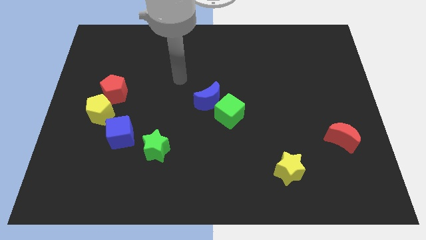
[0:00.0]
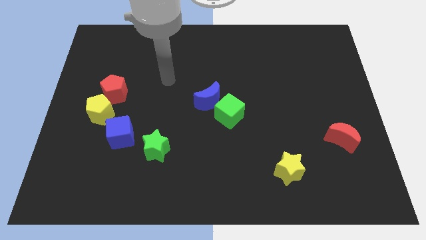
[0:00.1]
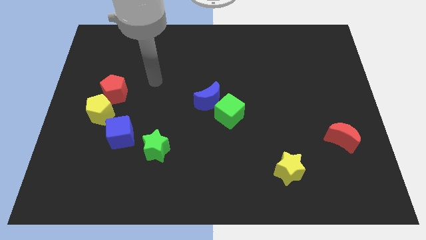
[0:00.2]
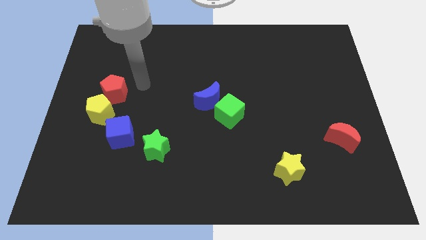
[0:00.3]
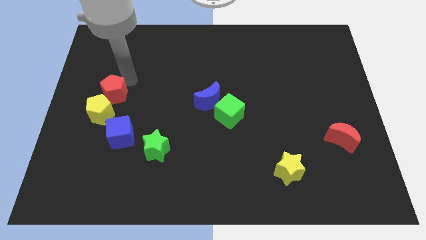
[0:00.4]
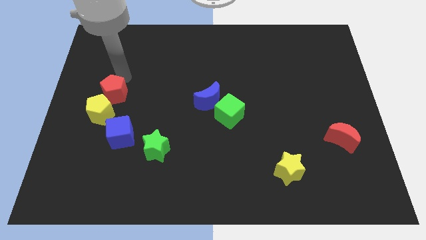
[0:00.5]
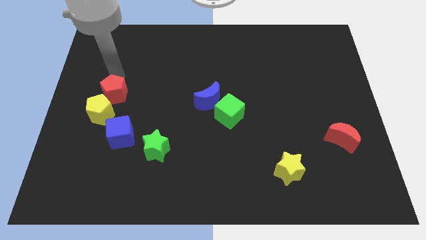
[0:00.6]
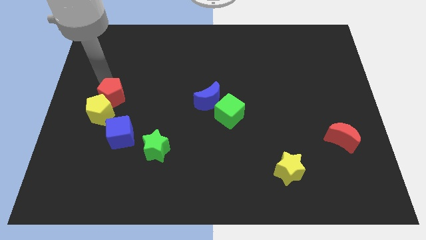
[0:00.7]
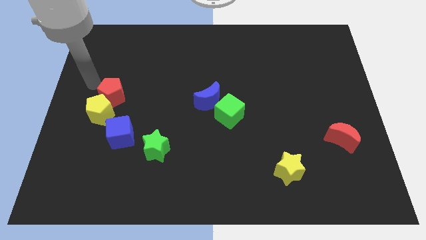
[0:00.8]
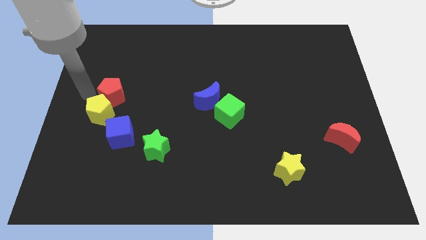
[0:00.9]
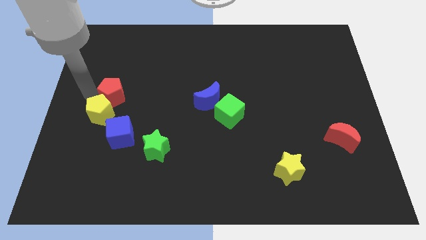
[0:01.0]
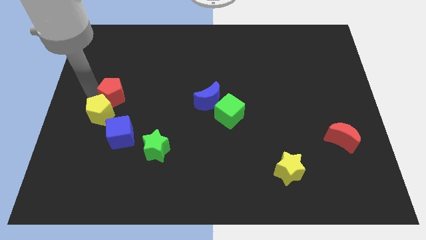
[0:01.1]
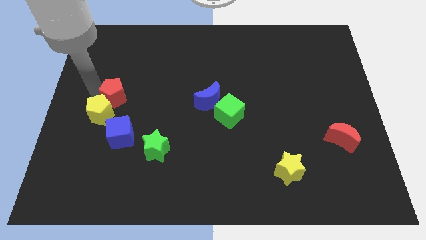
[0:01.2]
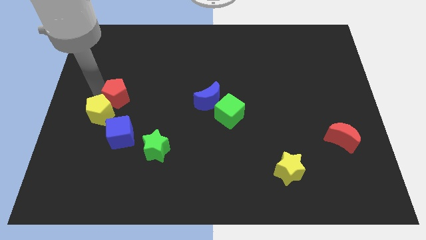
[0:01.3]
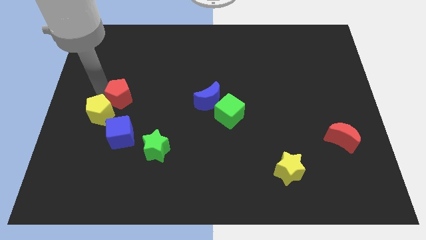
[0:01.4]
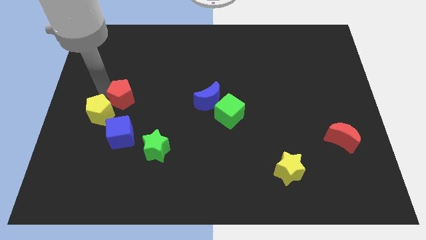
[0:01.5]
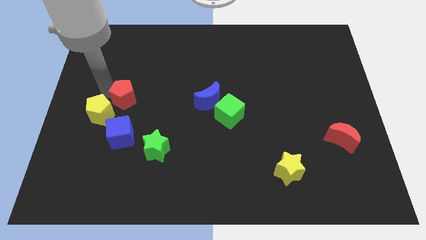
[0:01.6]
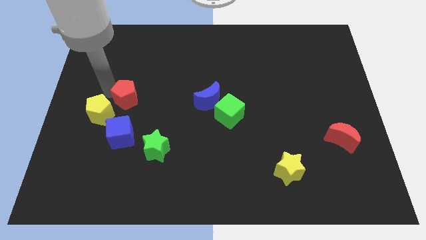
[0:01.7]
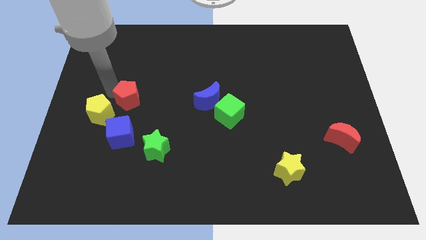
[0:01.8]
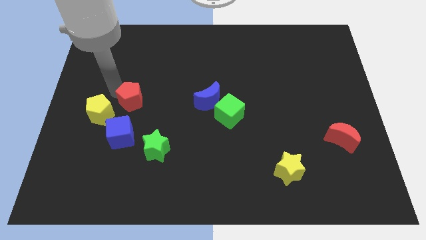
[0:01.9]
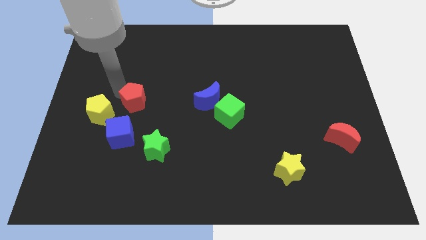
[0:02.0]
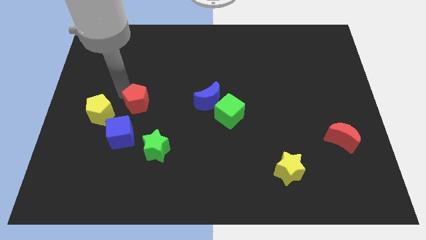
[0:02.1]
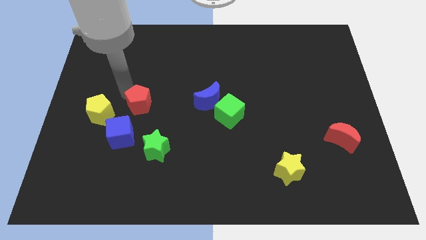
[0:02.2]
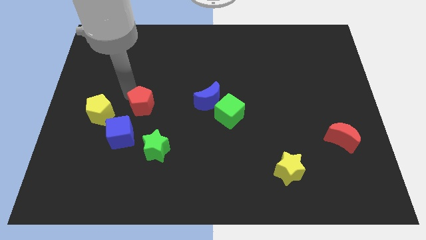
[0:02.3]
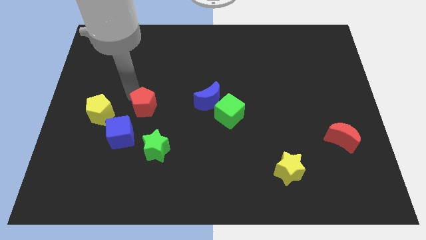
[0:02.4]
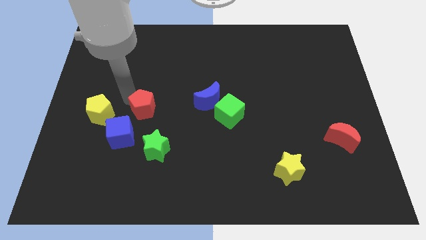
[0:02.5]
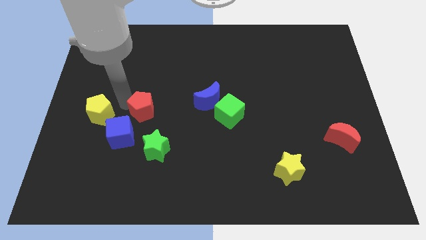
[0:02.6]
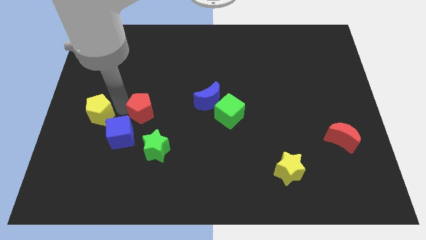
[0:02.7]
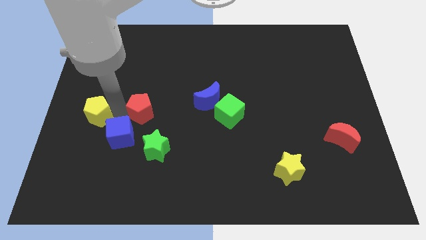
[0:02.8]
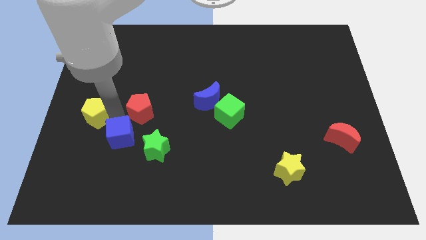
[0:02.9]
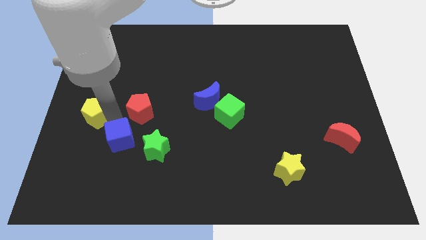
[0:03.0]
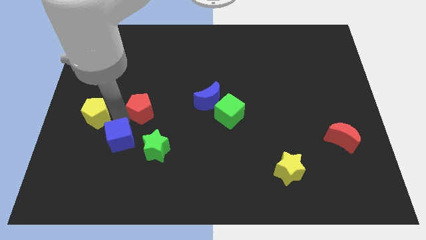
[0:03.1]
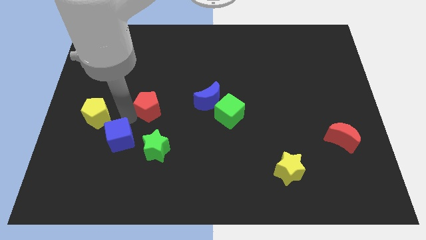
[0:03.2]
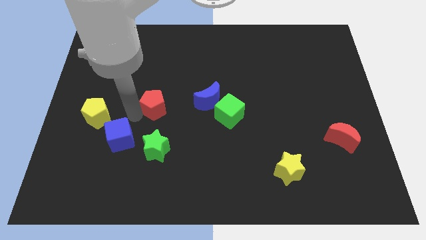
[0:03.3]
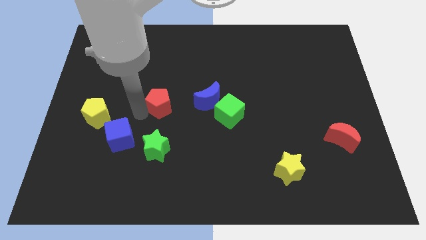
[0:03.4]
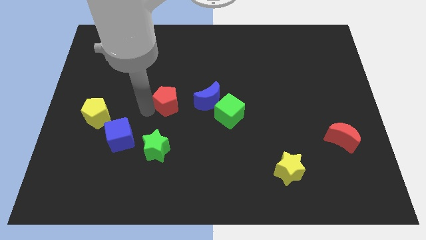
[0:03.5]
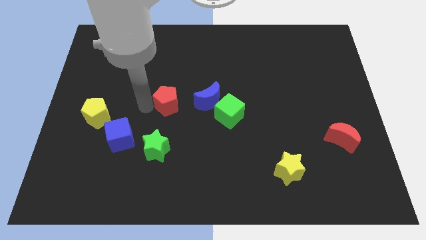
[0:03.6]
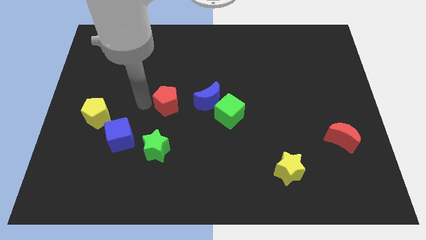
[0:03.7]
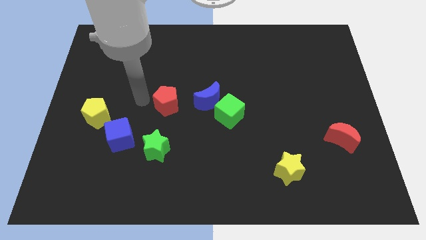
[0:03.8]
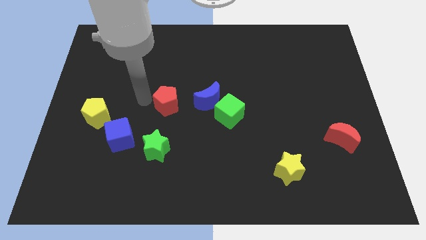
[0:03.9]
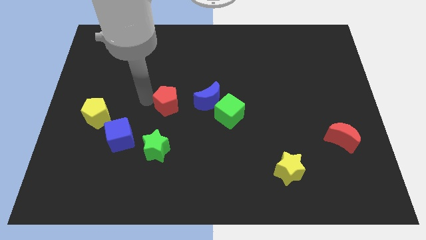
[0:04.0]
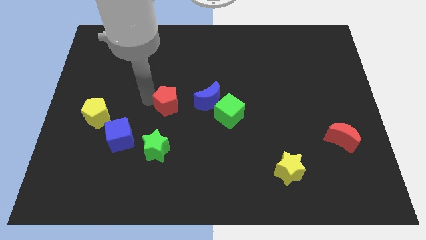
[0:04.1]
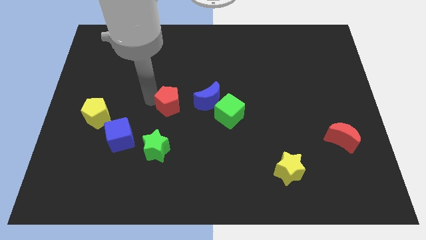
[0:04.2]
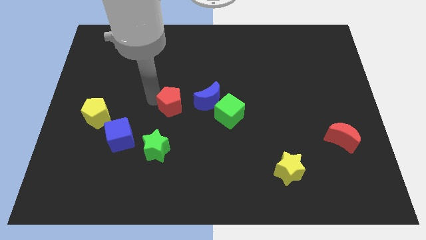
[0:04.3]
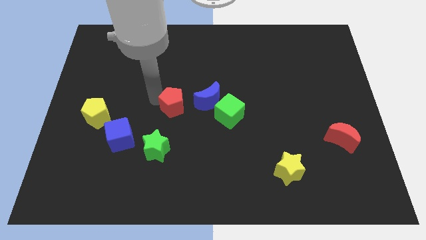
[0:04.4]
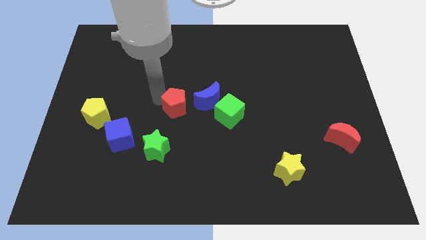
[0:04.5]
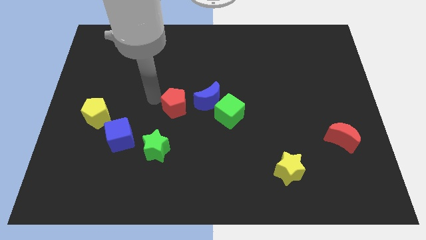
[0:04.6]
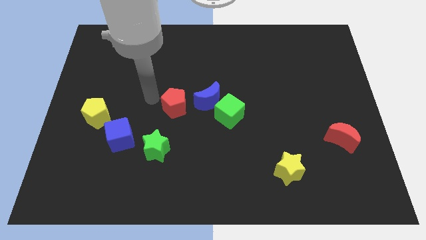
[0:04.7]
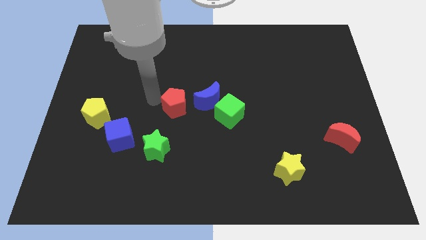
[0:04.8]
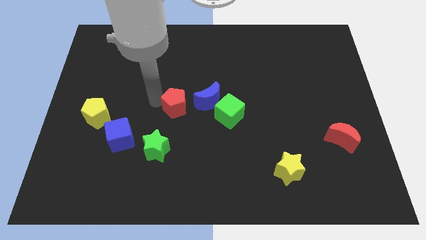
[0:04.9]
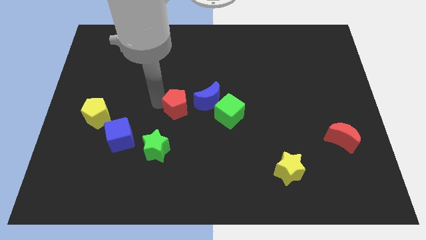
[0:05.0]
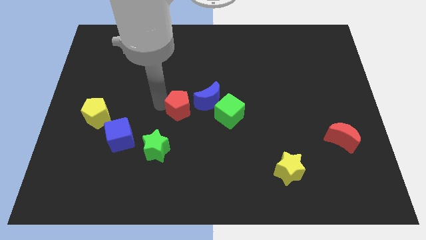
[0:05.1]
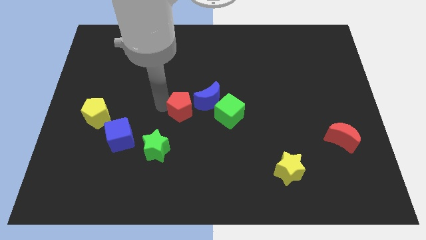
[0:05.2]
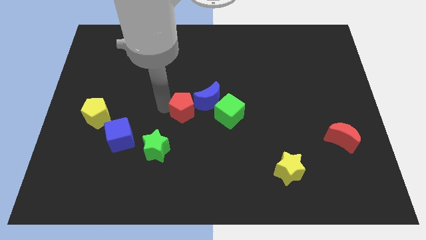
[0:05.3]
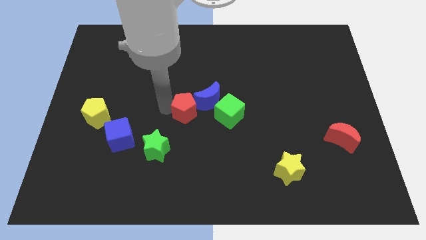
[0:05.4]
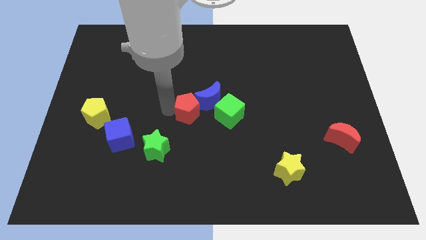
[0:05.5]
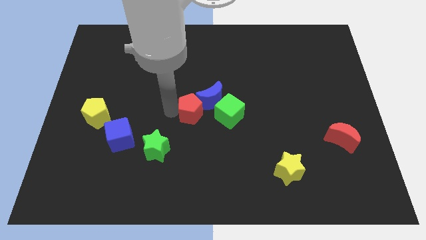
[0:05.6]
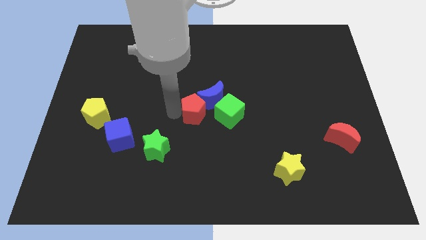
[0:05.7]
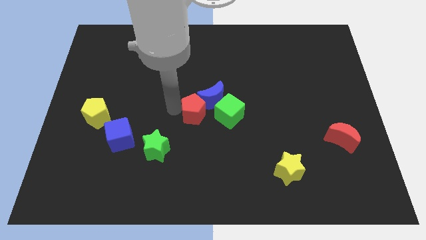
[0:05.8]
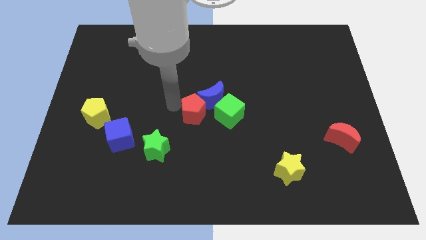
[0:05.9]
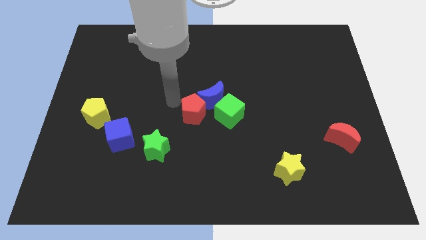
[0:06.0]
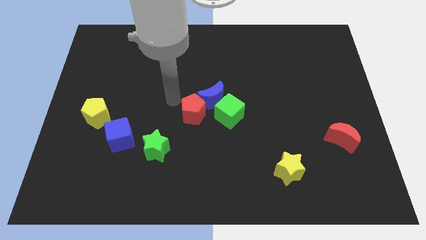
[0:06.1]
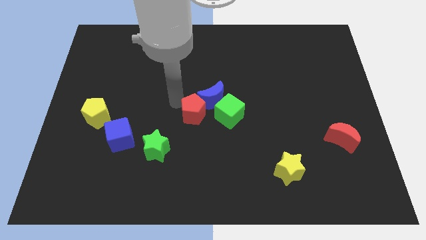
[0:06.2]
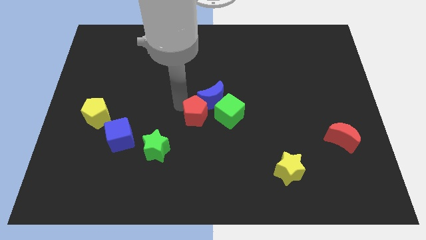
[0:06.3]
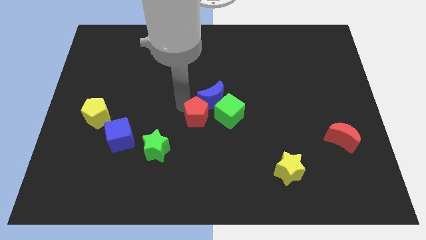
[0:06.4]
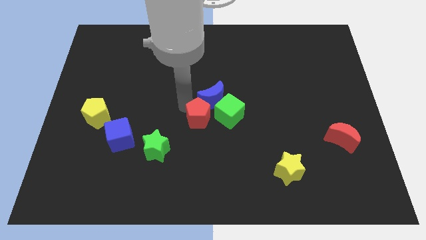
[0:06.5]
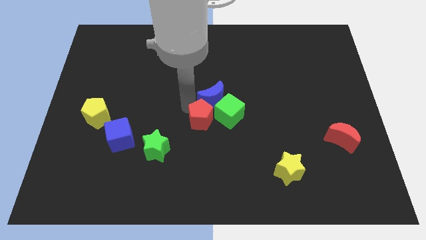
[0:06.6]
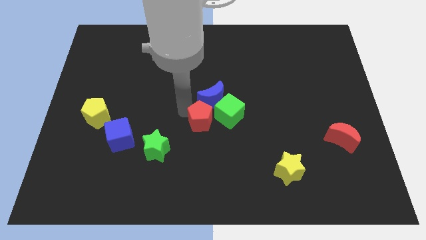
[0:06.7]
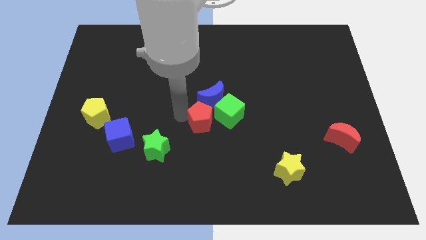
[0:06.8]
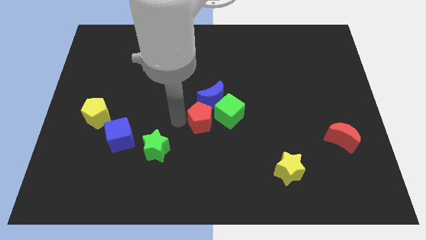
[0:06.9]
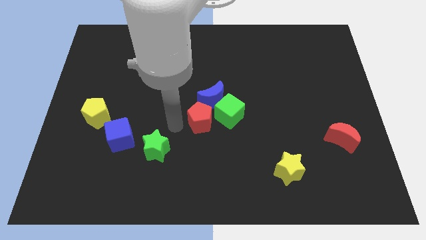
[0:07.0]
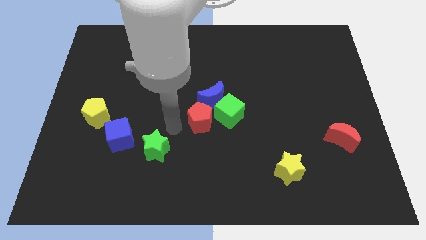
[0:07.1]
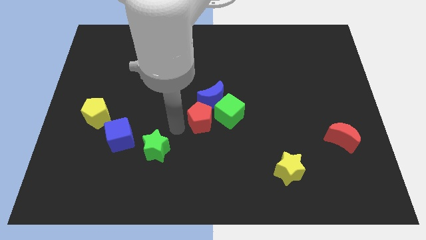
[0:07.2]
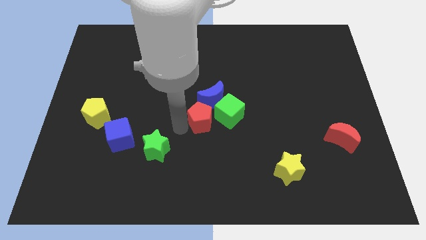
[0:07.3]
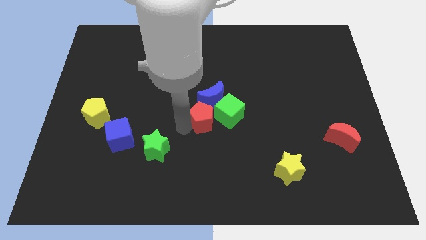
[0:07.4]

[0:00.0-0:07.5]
move the red pentagon towards the green cube

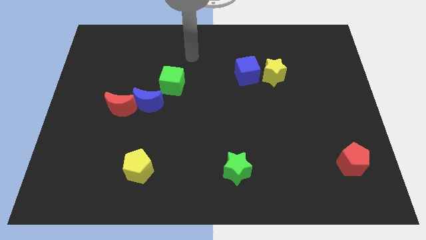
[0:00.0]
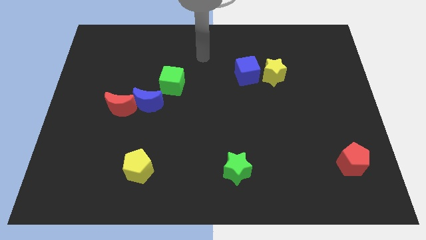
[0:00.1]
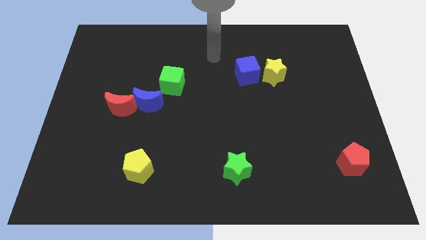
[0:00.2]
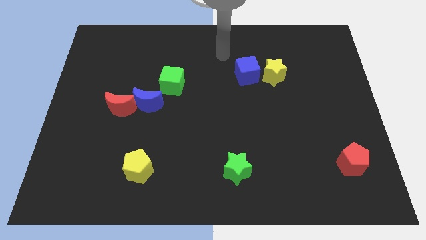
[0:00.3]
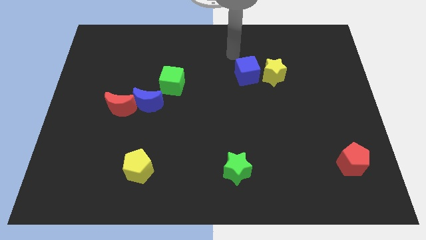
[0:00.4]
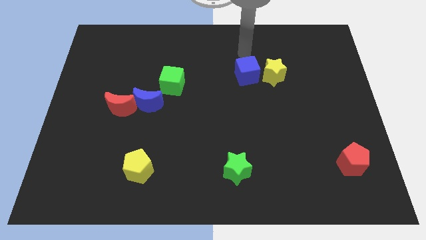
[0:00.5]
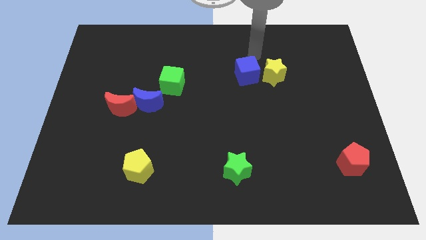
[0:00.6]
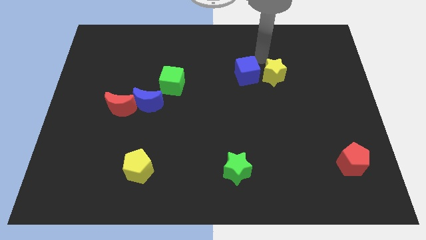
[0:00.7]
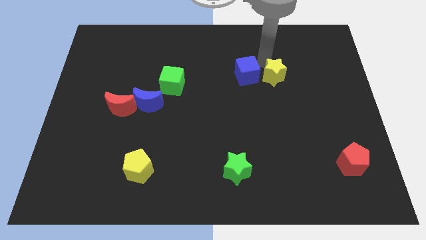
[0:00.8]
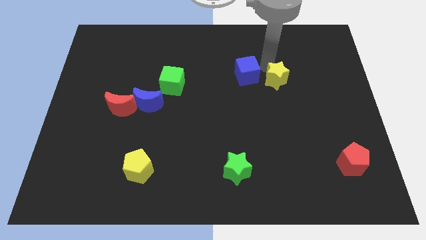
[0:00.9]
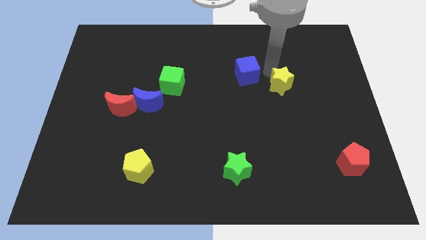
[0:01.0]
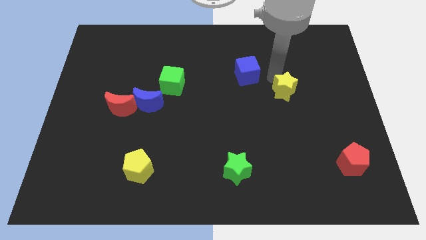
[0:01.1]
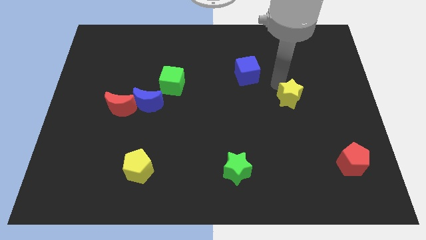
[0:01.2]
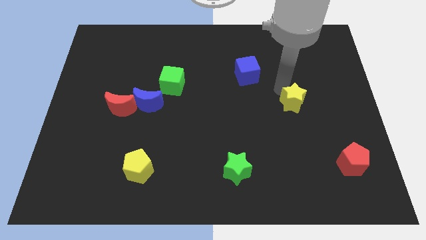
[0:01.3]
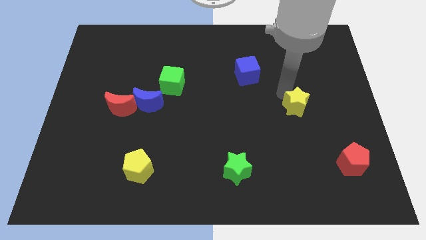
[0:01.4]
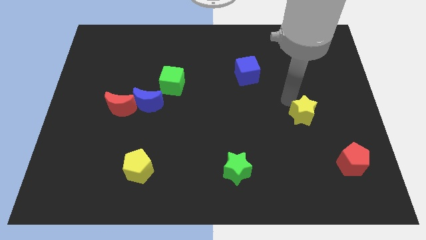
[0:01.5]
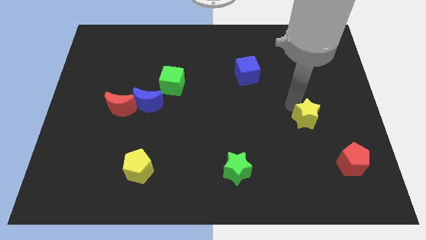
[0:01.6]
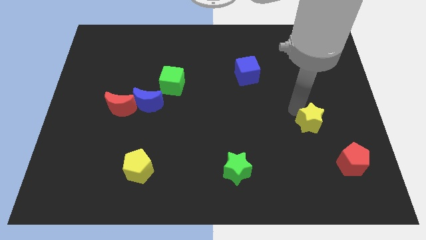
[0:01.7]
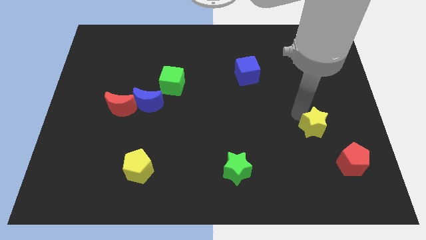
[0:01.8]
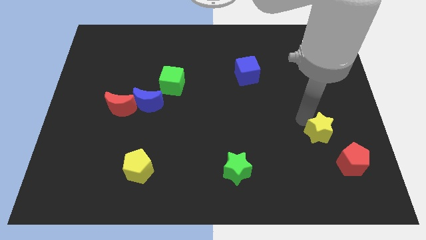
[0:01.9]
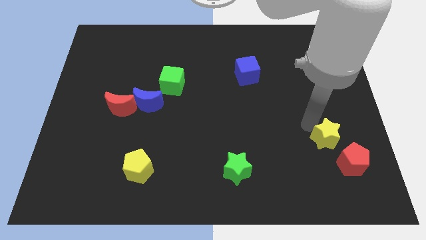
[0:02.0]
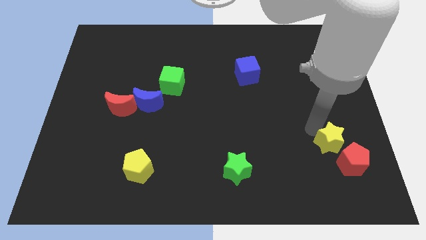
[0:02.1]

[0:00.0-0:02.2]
put the yellow star to the red pentagon
